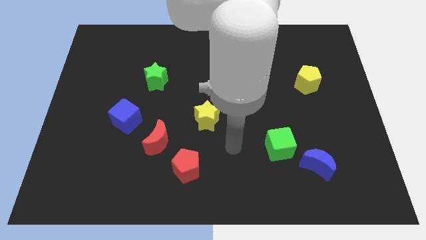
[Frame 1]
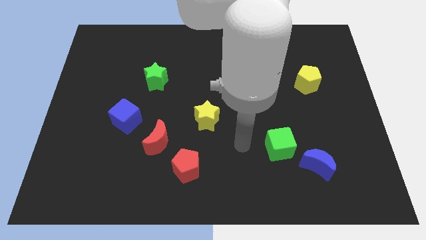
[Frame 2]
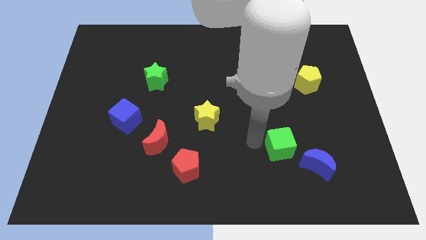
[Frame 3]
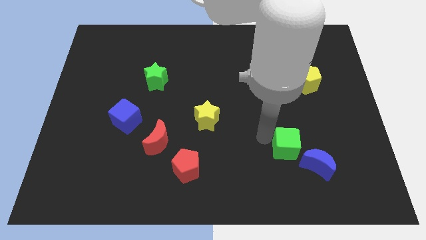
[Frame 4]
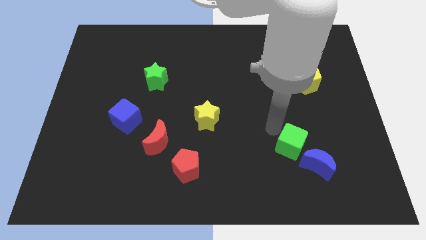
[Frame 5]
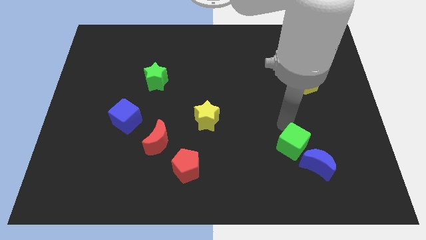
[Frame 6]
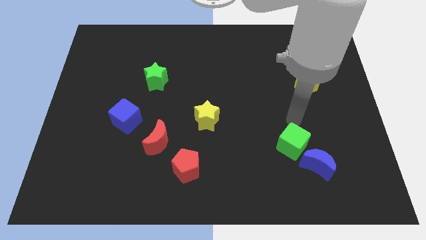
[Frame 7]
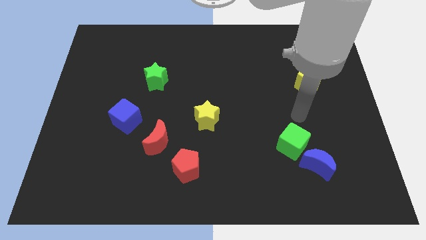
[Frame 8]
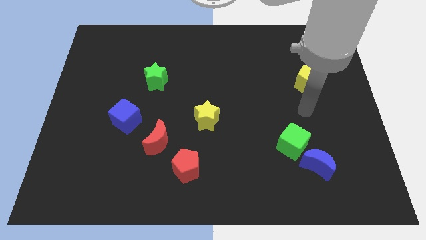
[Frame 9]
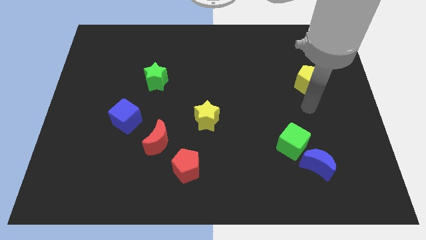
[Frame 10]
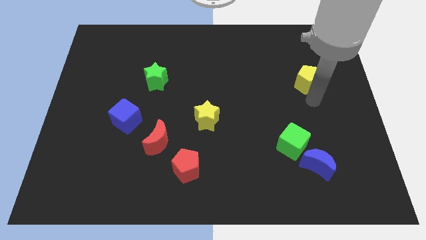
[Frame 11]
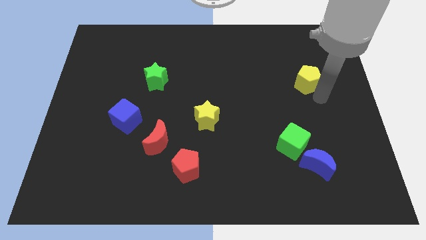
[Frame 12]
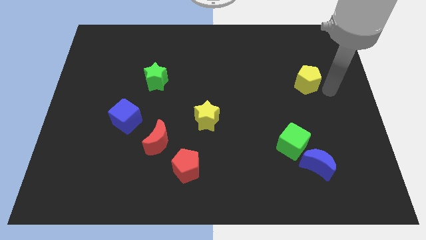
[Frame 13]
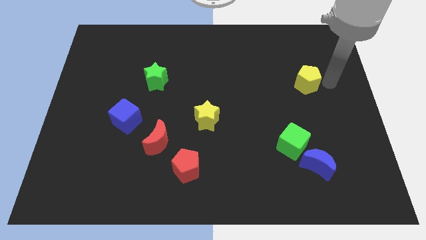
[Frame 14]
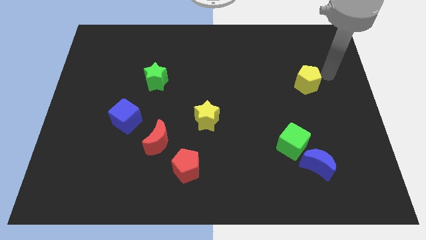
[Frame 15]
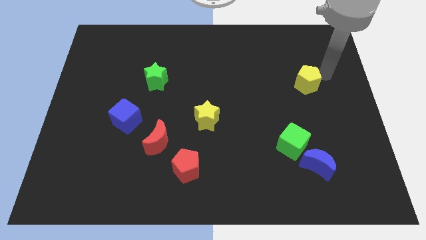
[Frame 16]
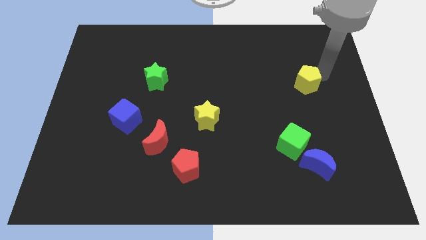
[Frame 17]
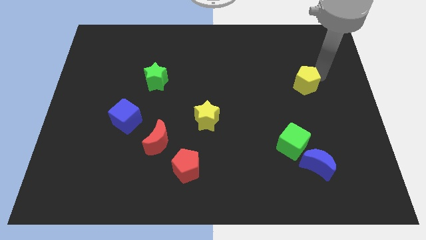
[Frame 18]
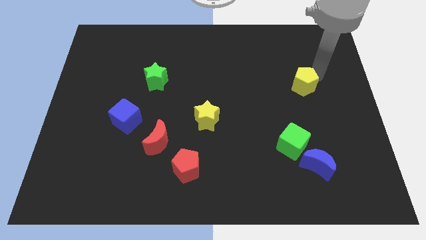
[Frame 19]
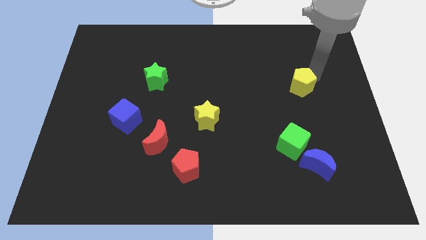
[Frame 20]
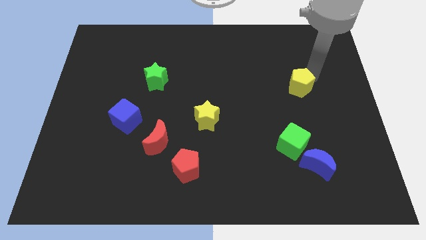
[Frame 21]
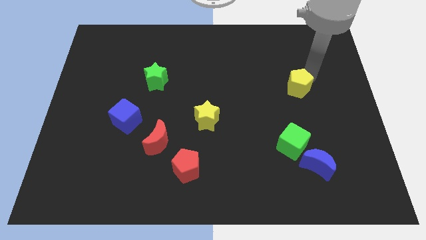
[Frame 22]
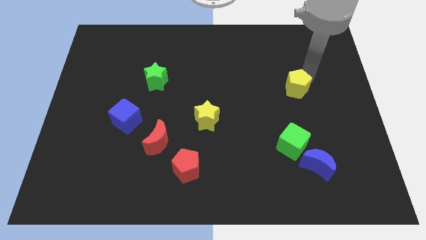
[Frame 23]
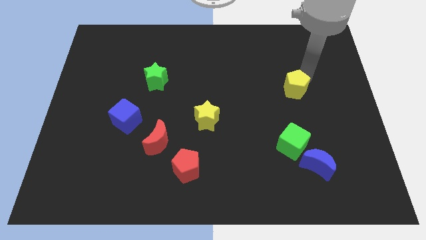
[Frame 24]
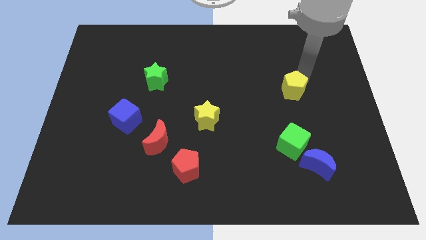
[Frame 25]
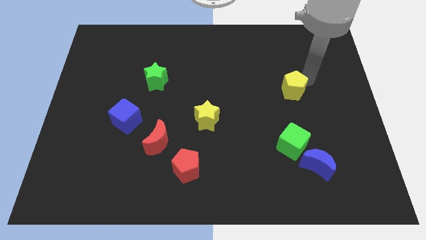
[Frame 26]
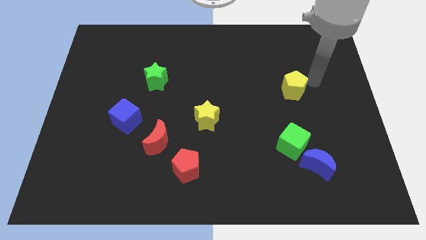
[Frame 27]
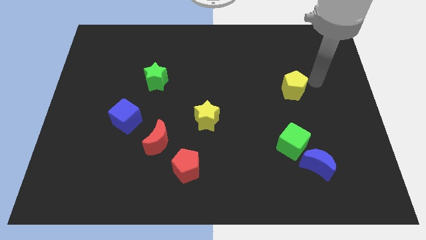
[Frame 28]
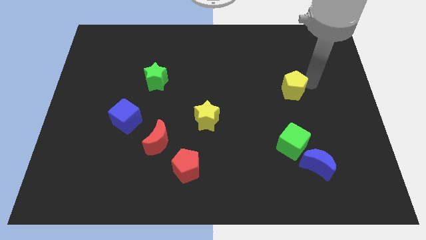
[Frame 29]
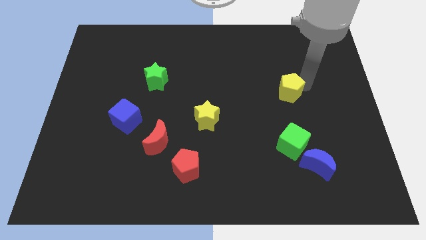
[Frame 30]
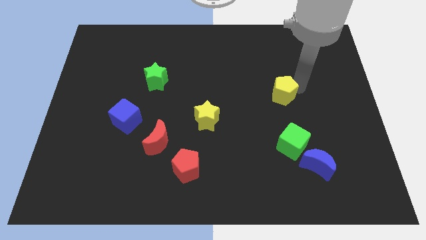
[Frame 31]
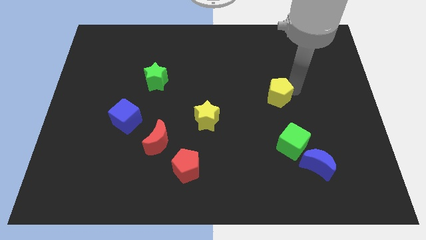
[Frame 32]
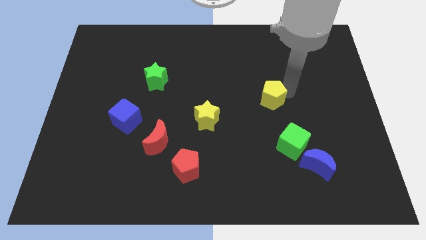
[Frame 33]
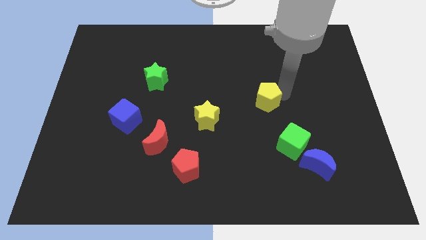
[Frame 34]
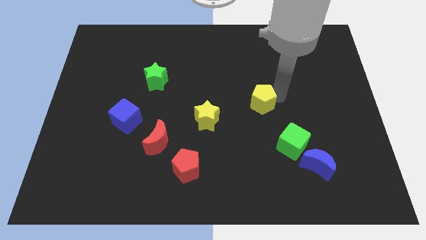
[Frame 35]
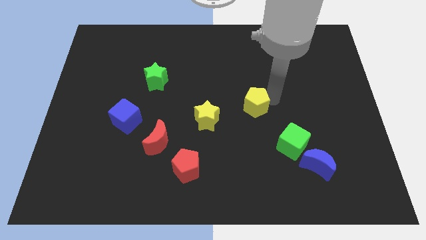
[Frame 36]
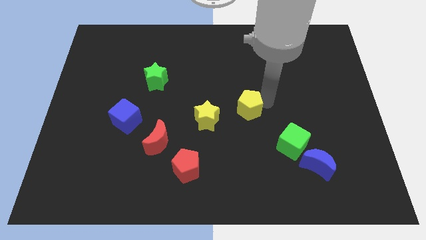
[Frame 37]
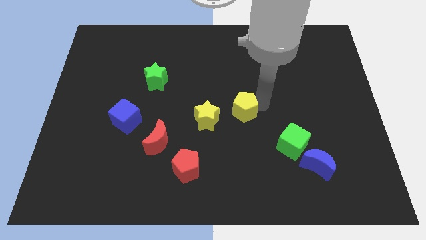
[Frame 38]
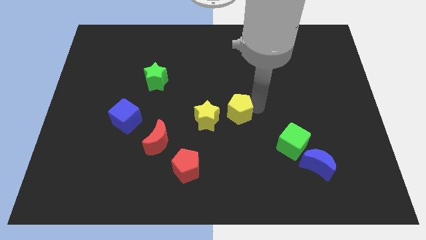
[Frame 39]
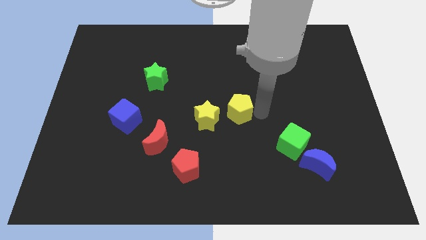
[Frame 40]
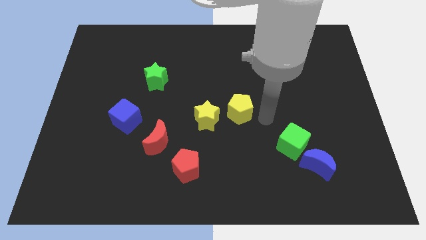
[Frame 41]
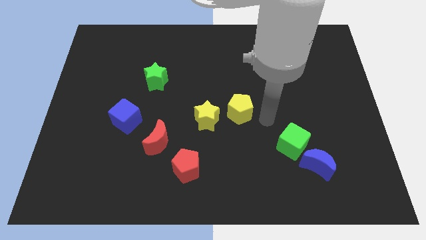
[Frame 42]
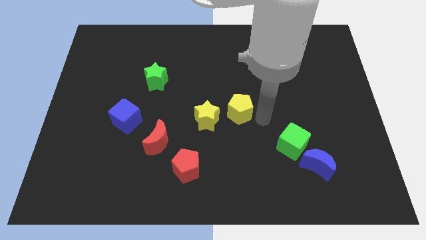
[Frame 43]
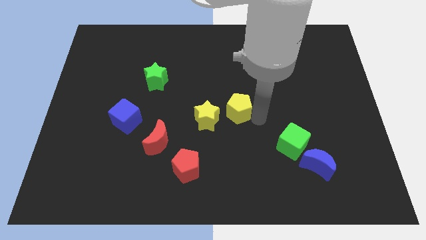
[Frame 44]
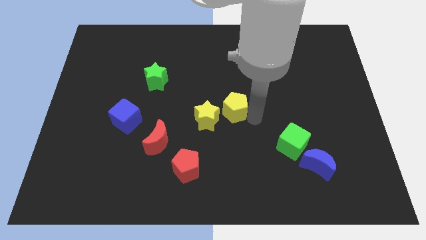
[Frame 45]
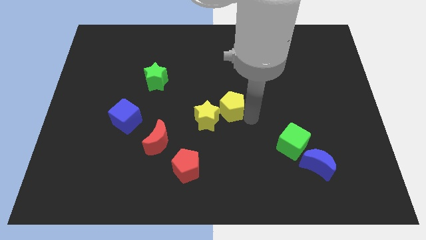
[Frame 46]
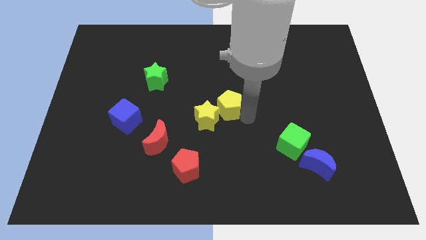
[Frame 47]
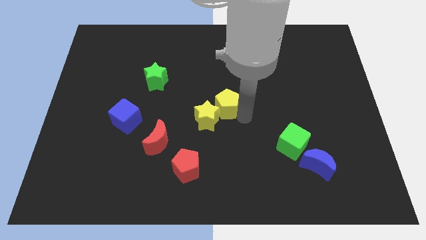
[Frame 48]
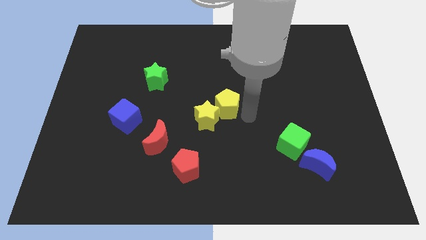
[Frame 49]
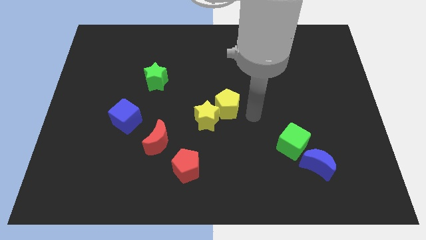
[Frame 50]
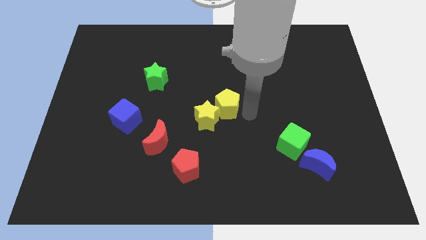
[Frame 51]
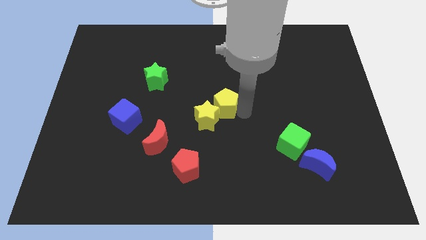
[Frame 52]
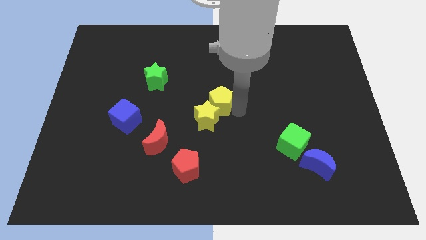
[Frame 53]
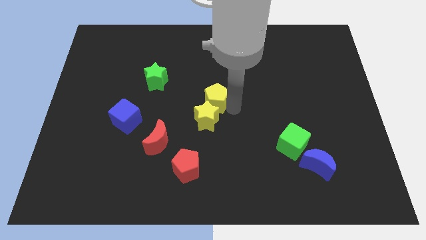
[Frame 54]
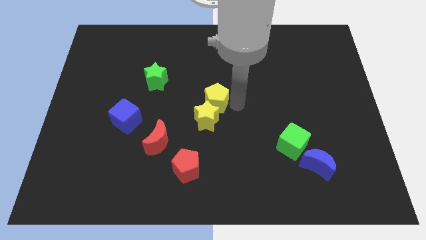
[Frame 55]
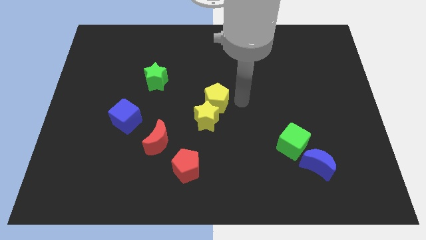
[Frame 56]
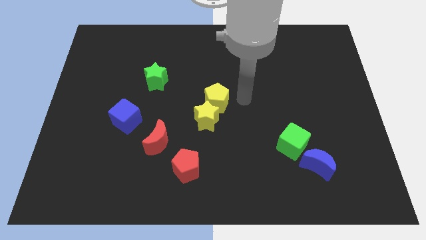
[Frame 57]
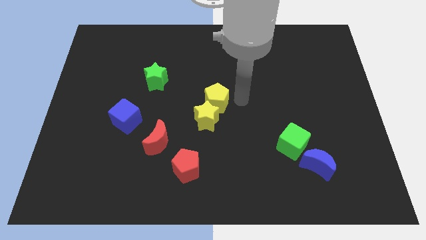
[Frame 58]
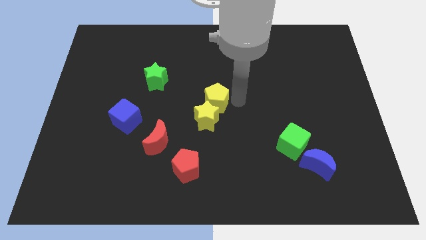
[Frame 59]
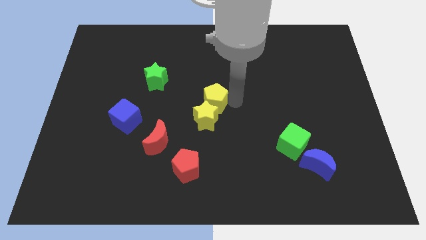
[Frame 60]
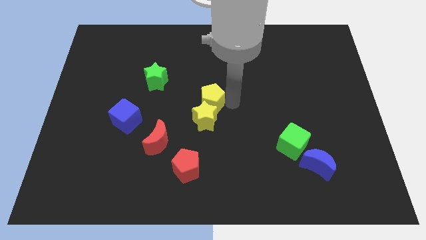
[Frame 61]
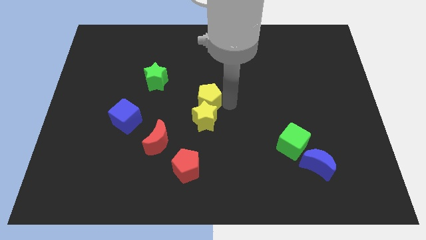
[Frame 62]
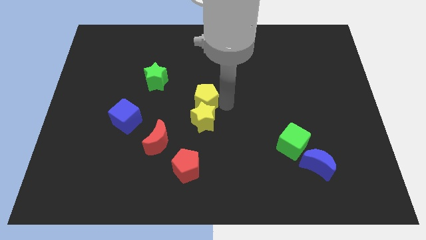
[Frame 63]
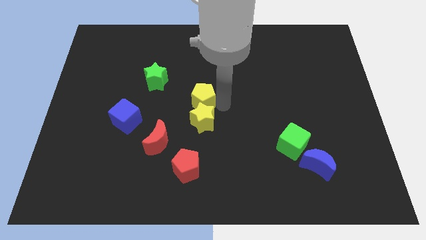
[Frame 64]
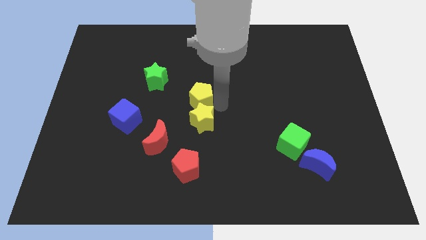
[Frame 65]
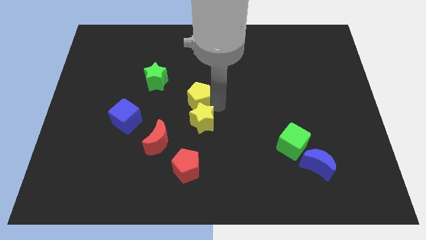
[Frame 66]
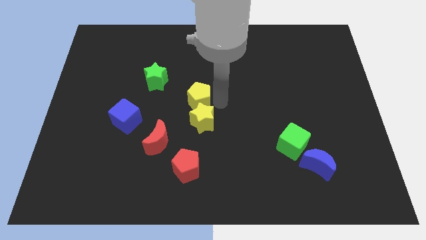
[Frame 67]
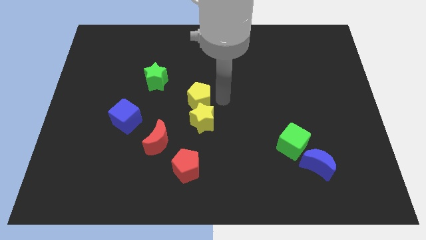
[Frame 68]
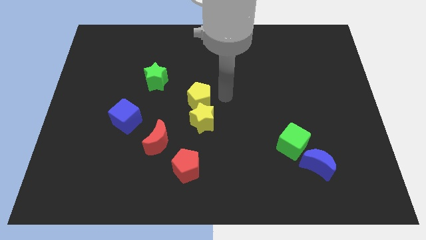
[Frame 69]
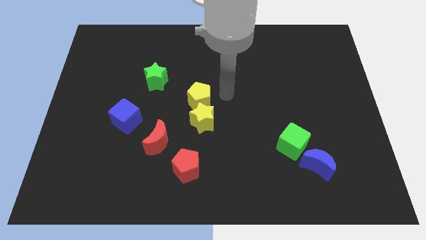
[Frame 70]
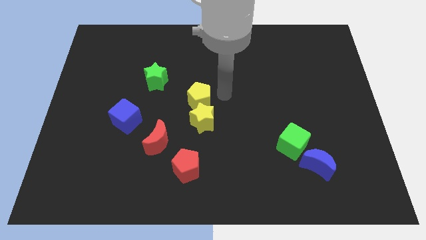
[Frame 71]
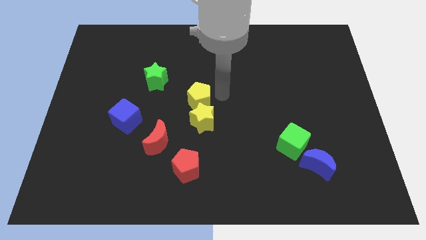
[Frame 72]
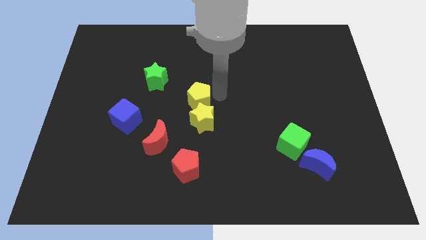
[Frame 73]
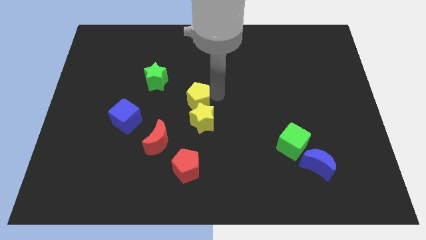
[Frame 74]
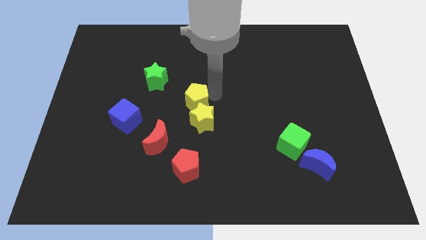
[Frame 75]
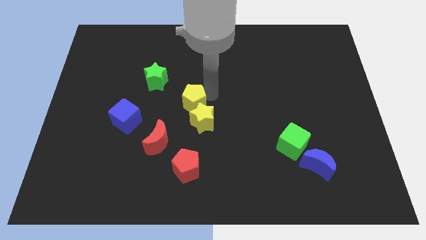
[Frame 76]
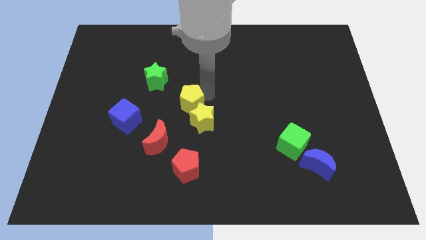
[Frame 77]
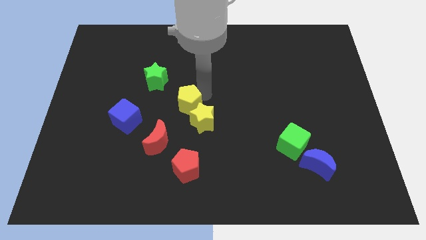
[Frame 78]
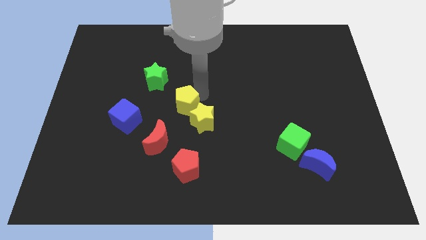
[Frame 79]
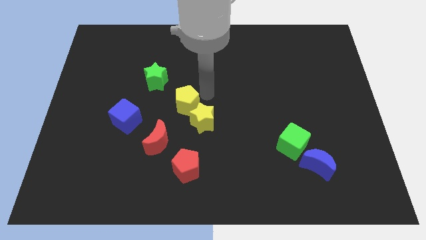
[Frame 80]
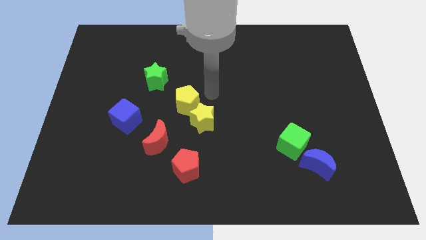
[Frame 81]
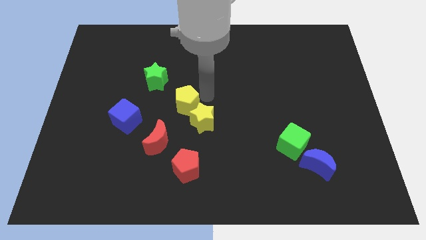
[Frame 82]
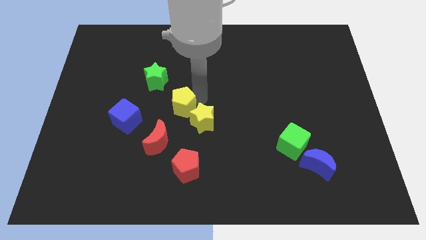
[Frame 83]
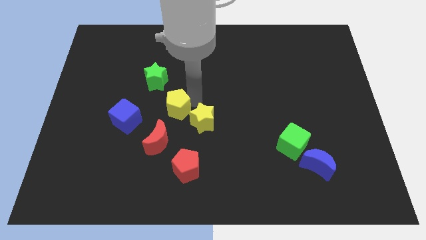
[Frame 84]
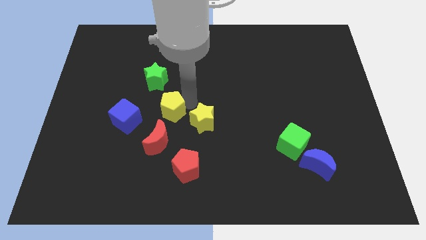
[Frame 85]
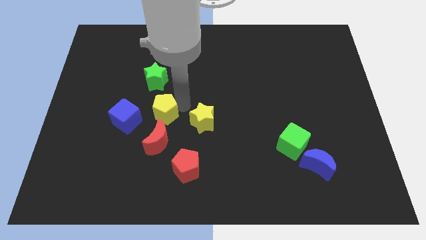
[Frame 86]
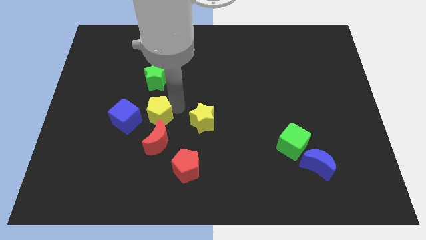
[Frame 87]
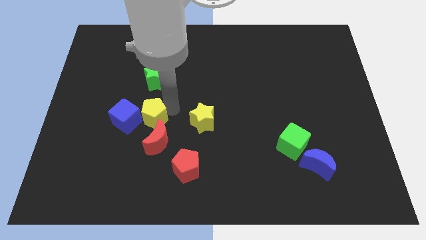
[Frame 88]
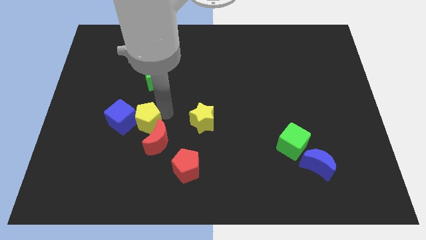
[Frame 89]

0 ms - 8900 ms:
push the yellow pentagon to the blue cube
